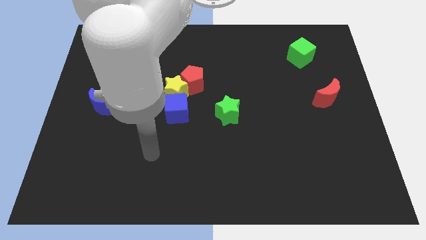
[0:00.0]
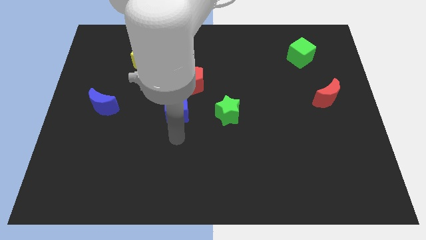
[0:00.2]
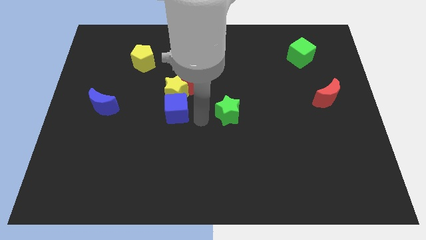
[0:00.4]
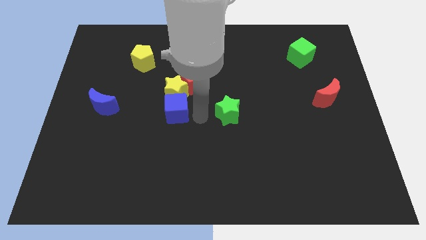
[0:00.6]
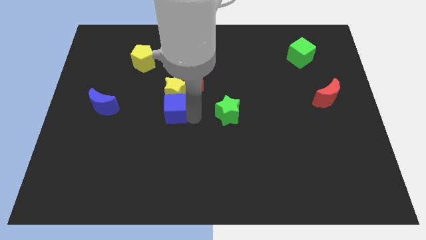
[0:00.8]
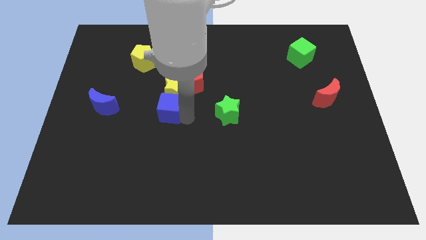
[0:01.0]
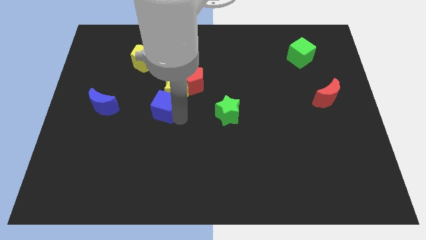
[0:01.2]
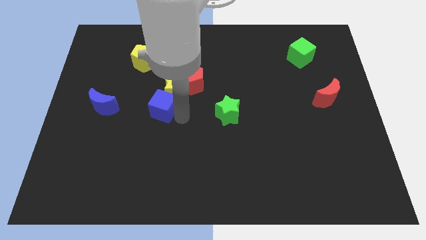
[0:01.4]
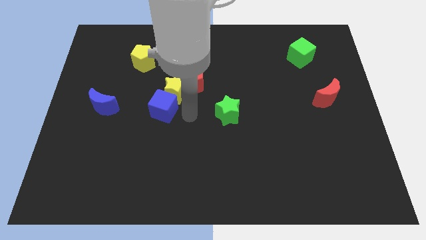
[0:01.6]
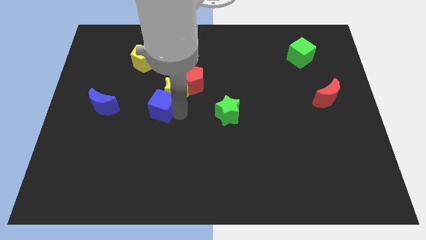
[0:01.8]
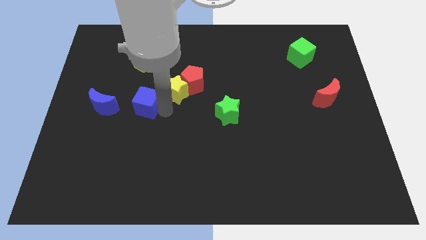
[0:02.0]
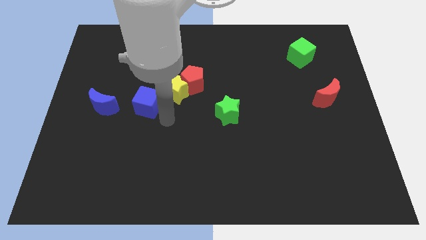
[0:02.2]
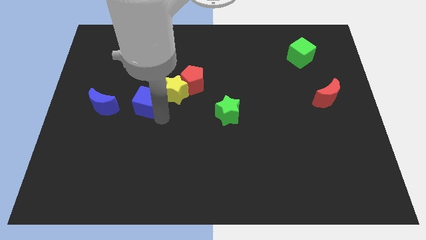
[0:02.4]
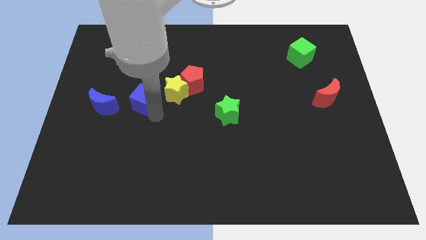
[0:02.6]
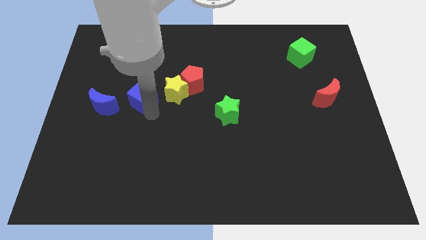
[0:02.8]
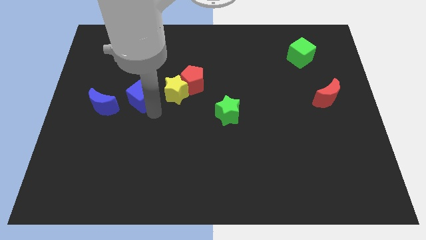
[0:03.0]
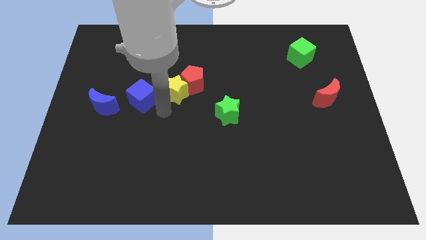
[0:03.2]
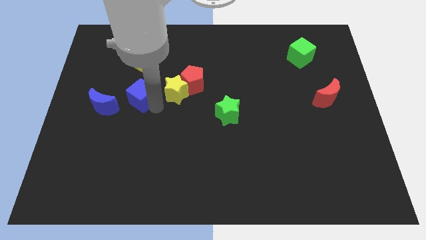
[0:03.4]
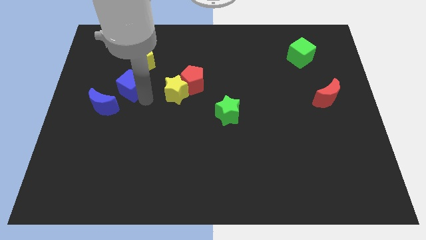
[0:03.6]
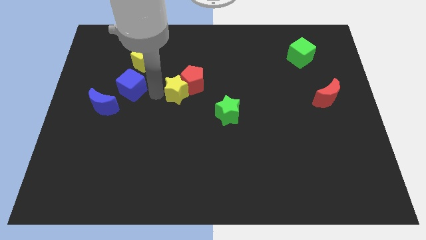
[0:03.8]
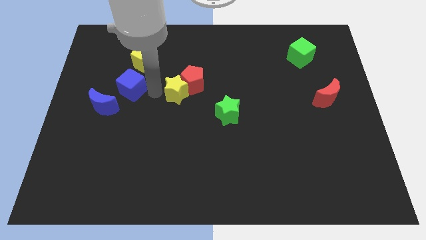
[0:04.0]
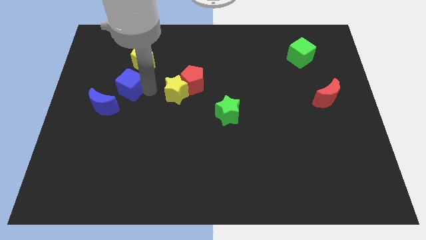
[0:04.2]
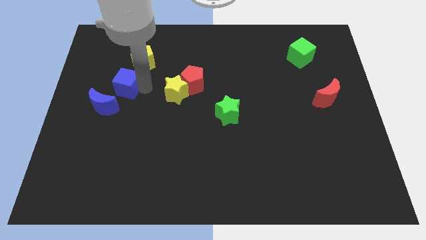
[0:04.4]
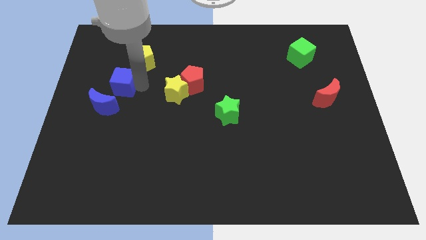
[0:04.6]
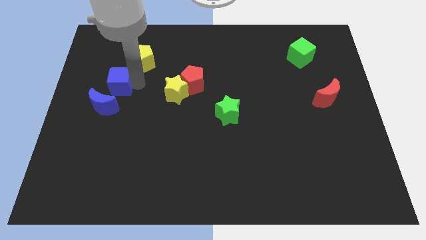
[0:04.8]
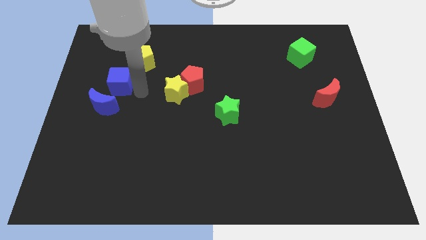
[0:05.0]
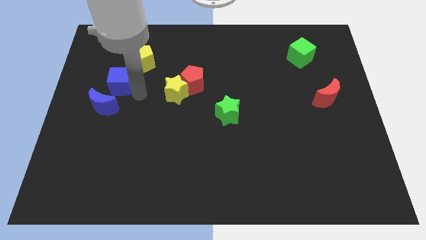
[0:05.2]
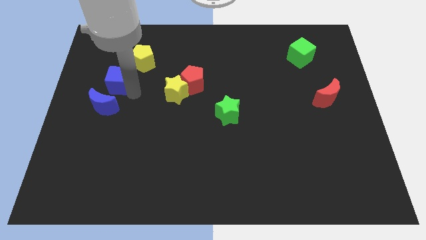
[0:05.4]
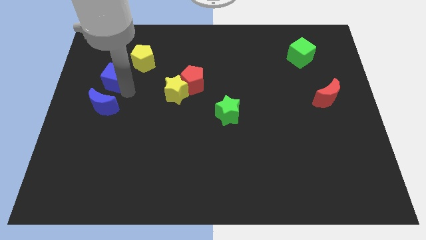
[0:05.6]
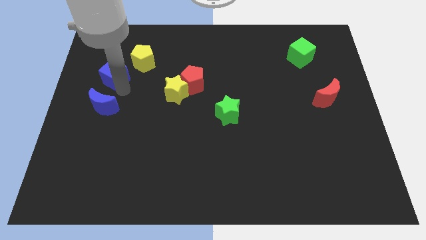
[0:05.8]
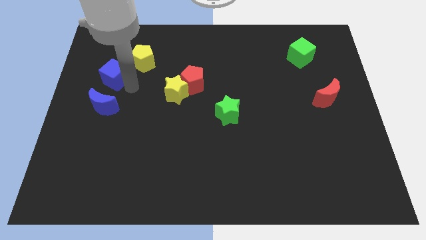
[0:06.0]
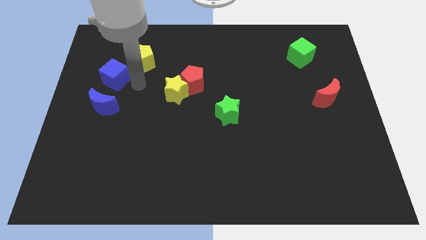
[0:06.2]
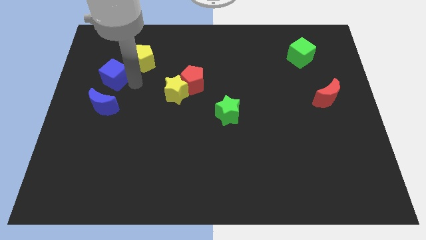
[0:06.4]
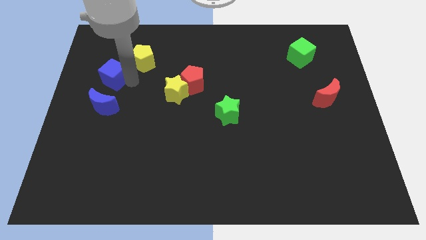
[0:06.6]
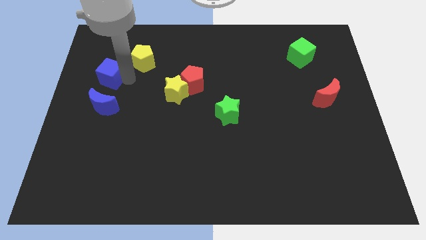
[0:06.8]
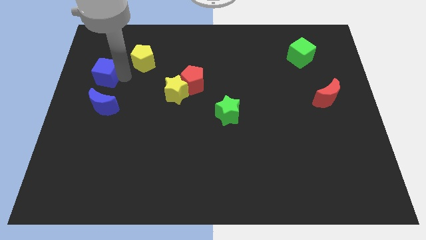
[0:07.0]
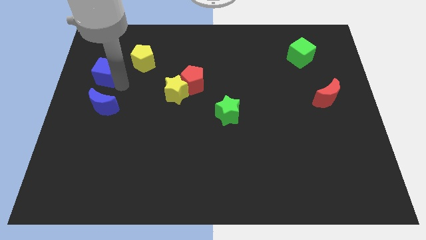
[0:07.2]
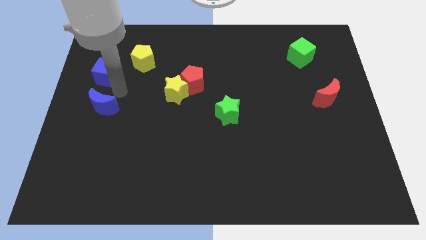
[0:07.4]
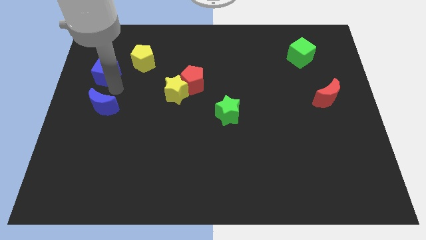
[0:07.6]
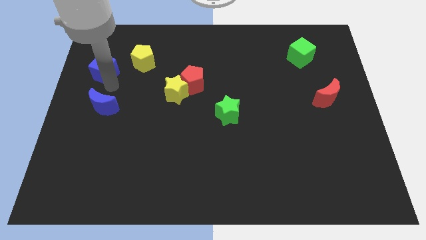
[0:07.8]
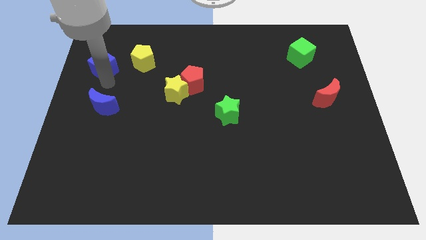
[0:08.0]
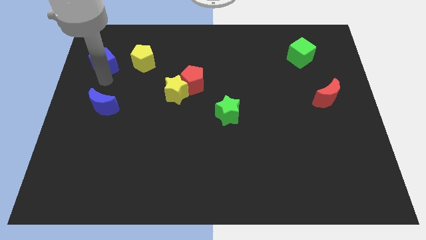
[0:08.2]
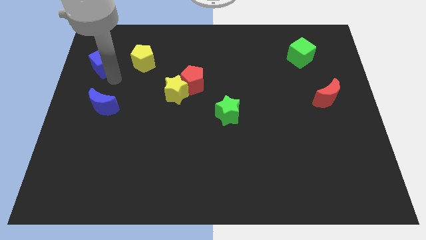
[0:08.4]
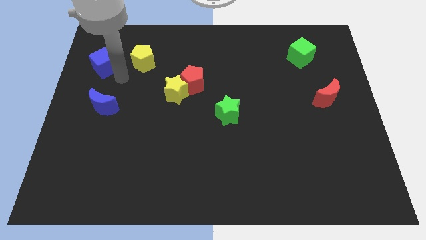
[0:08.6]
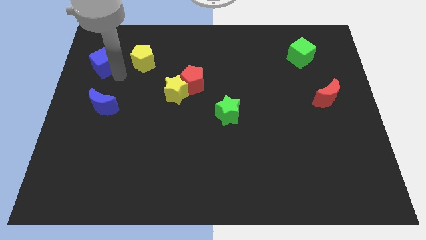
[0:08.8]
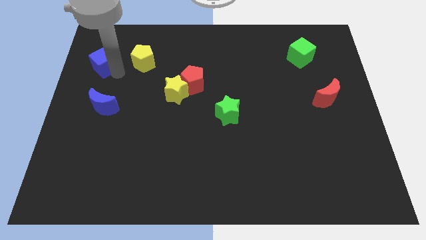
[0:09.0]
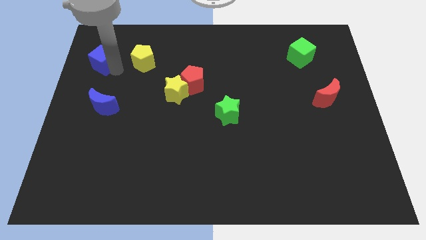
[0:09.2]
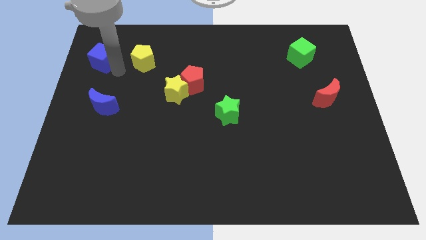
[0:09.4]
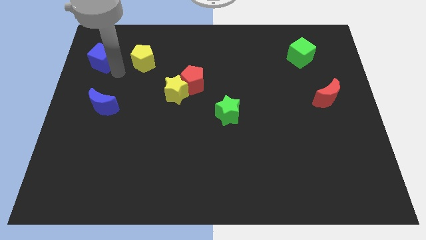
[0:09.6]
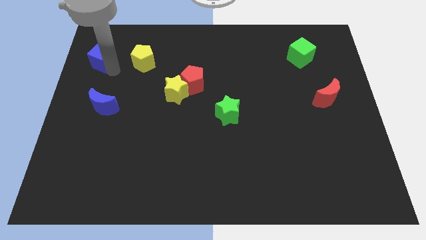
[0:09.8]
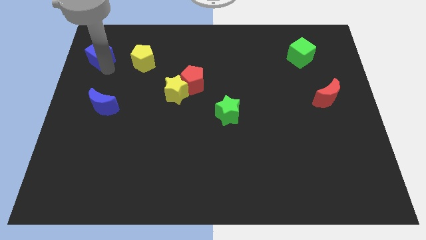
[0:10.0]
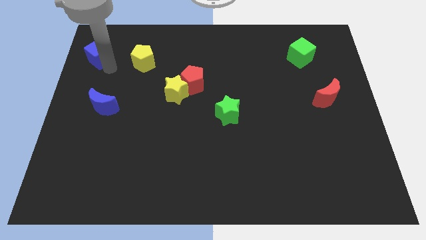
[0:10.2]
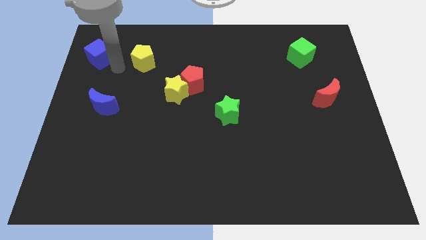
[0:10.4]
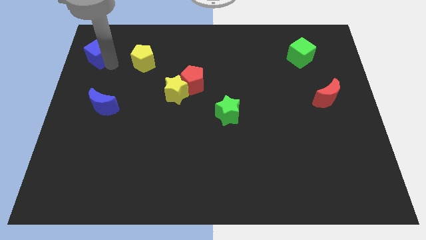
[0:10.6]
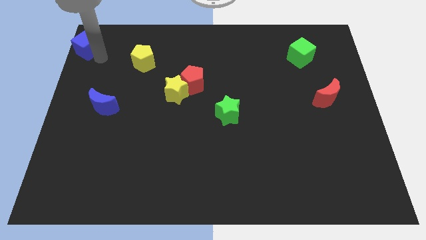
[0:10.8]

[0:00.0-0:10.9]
slide the blue cube to the top left corner

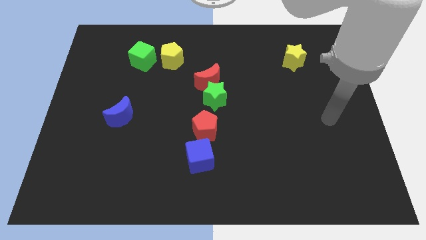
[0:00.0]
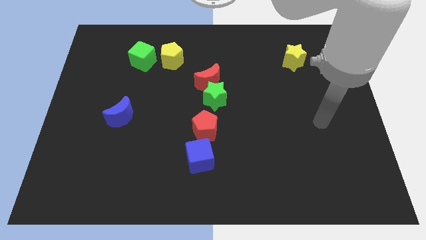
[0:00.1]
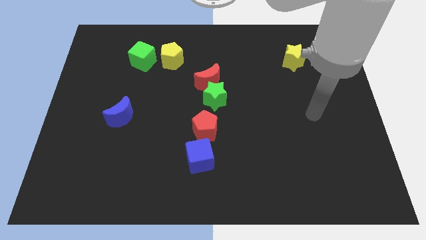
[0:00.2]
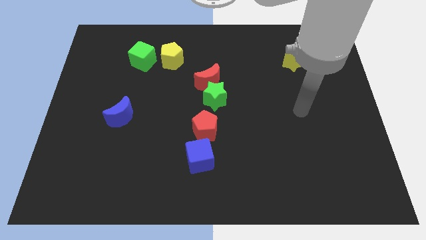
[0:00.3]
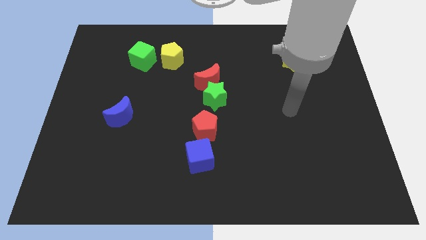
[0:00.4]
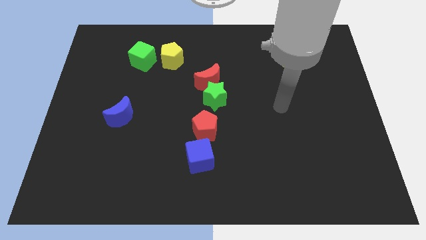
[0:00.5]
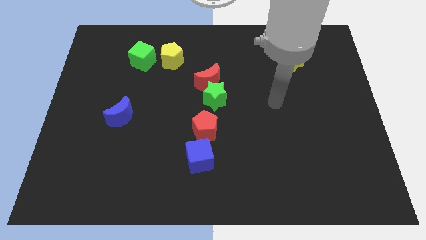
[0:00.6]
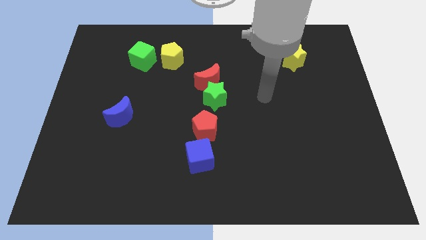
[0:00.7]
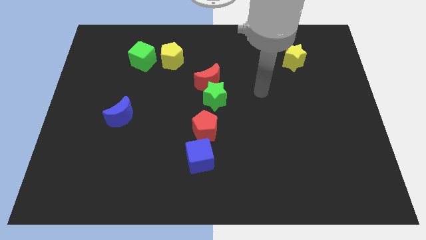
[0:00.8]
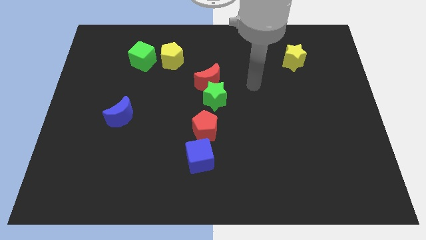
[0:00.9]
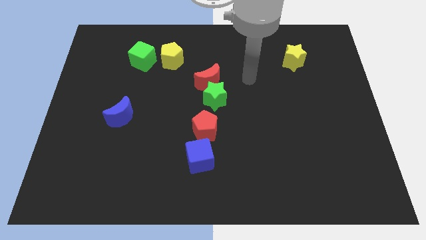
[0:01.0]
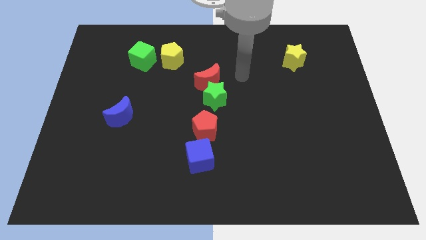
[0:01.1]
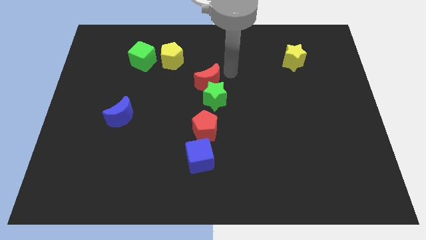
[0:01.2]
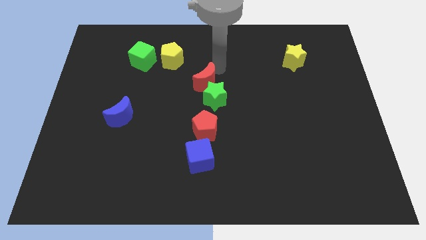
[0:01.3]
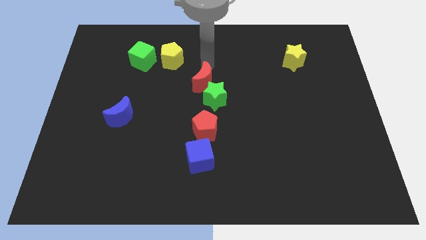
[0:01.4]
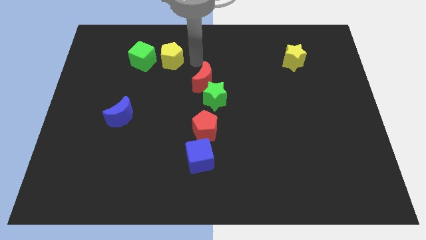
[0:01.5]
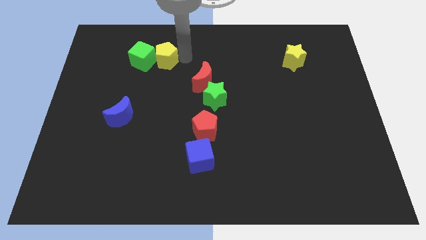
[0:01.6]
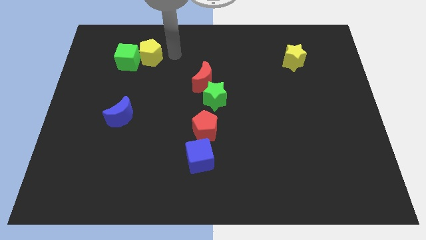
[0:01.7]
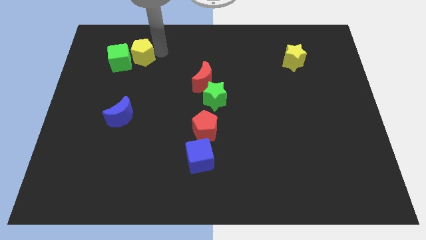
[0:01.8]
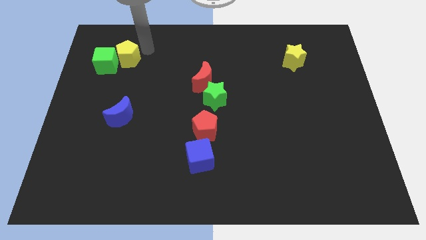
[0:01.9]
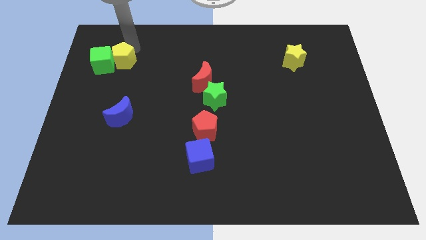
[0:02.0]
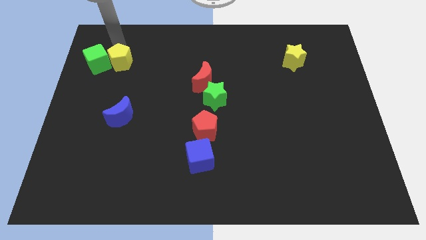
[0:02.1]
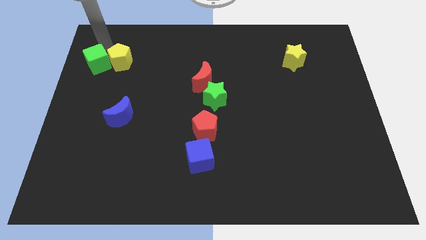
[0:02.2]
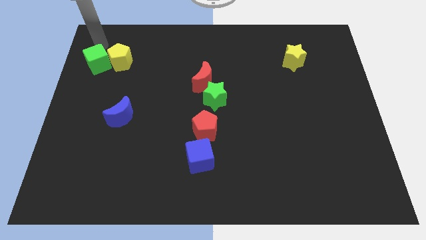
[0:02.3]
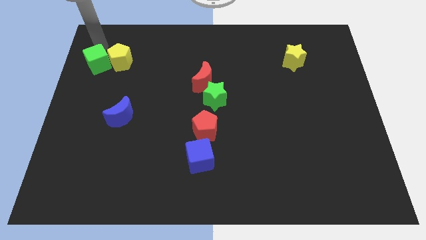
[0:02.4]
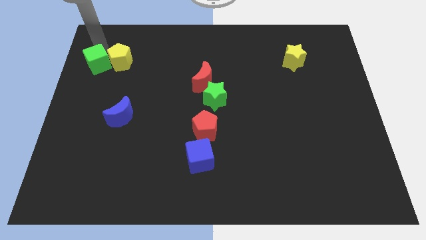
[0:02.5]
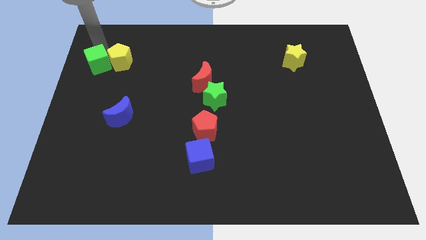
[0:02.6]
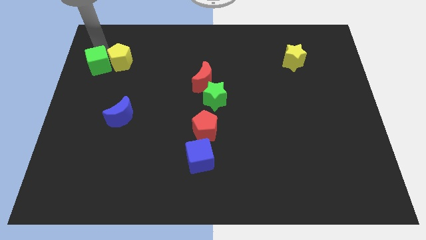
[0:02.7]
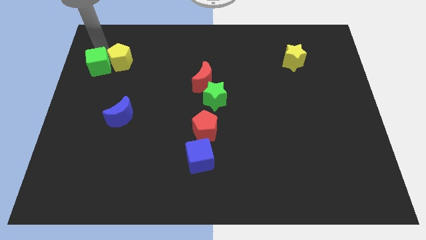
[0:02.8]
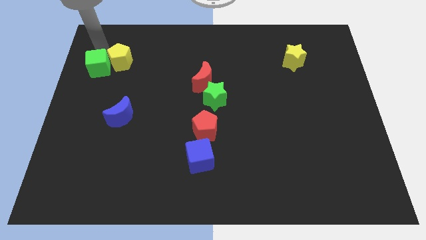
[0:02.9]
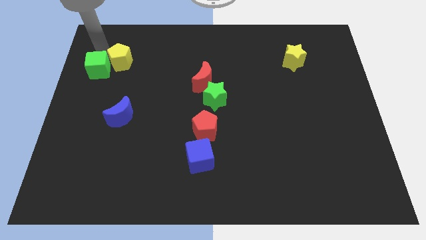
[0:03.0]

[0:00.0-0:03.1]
move the green cube to the left side
